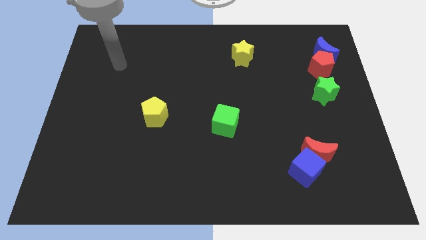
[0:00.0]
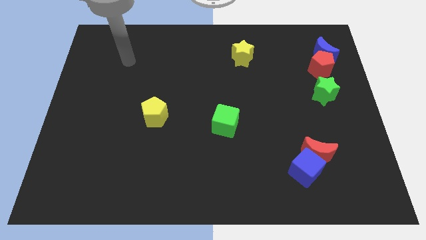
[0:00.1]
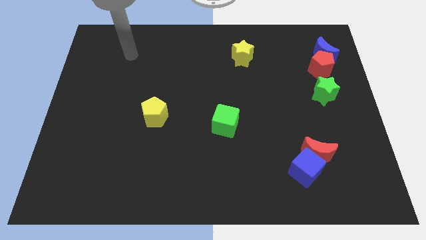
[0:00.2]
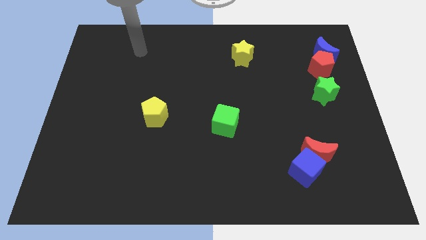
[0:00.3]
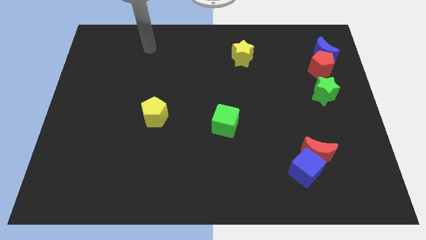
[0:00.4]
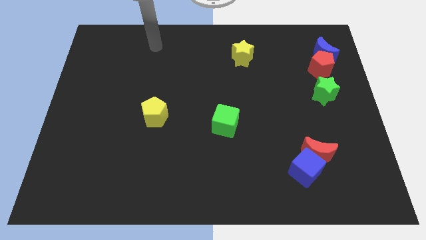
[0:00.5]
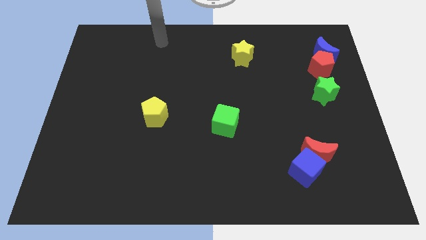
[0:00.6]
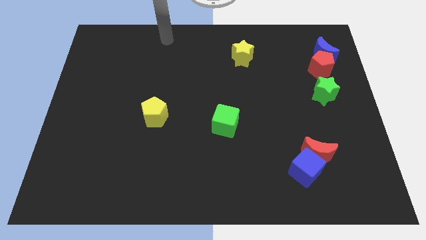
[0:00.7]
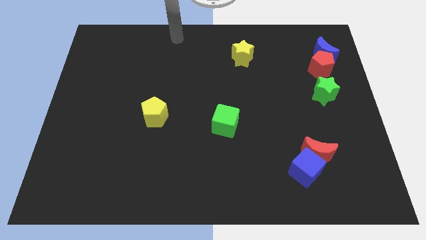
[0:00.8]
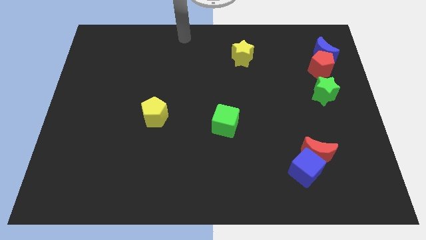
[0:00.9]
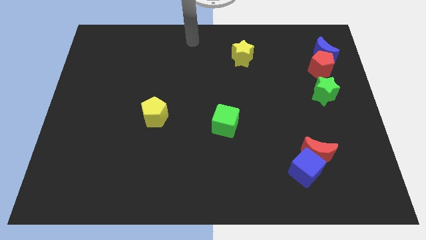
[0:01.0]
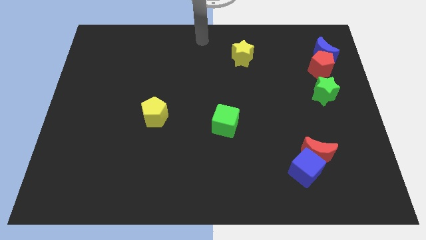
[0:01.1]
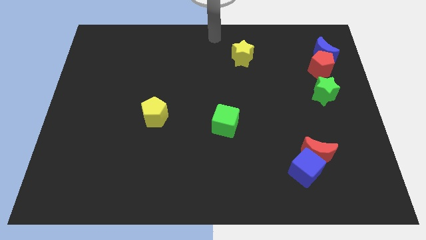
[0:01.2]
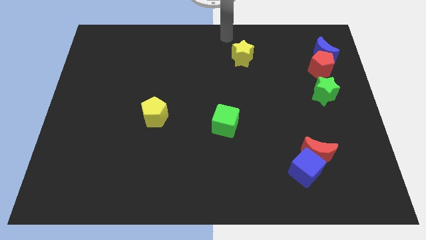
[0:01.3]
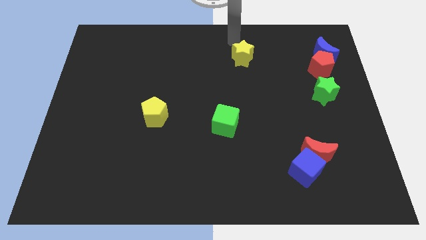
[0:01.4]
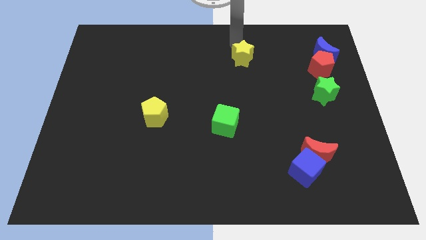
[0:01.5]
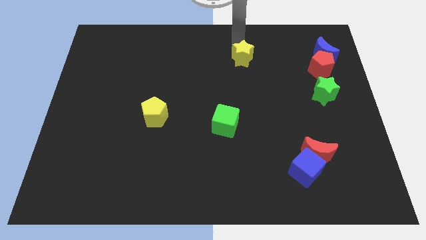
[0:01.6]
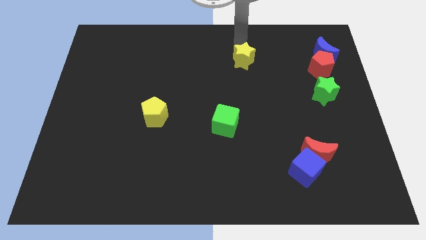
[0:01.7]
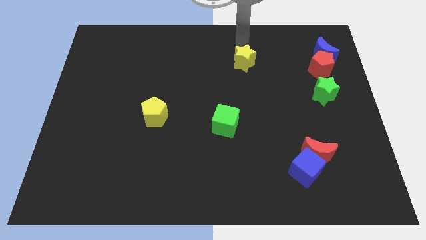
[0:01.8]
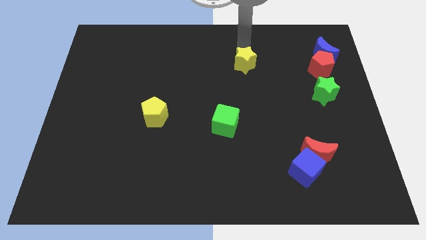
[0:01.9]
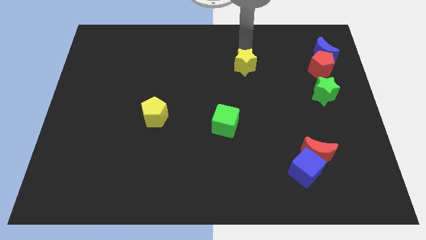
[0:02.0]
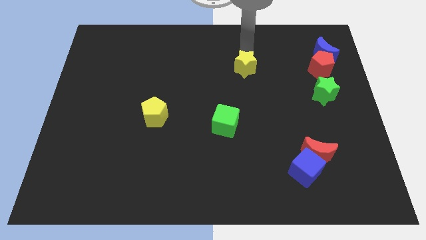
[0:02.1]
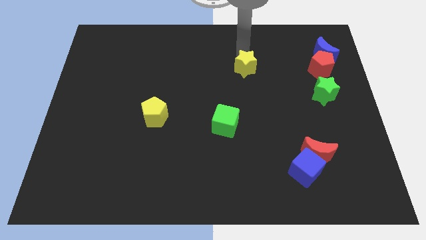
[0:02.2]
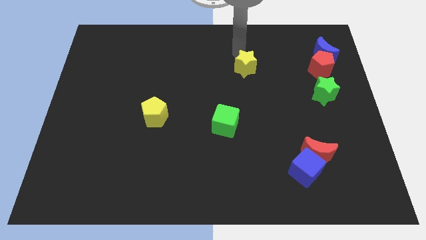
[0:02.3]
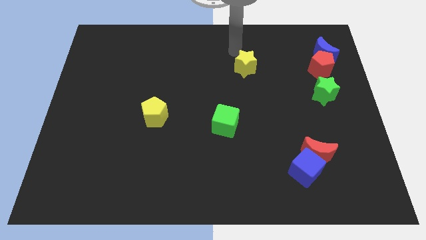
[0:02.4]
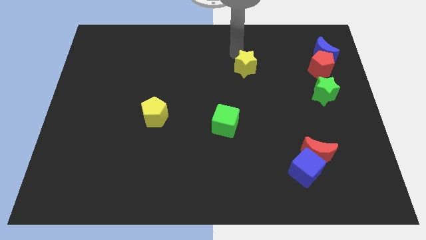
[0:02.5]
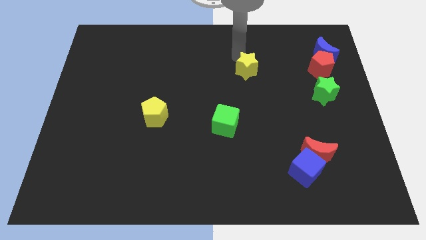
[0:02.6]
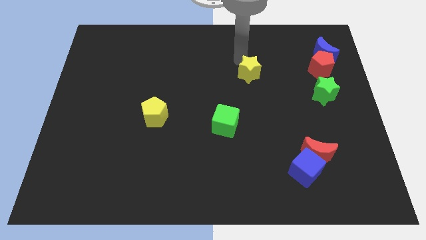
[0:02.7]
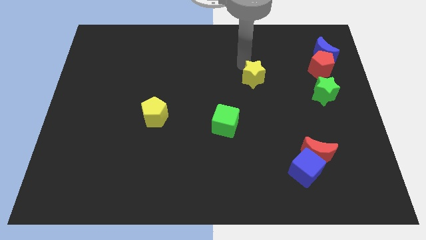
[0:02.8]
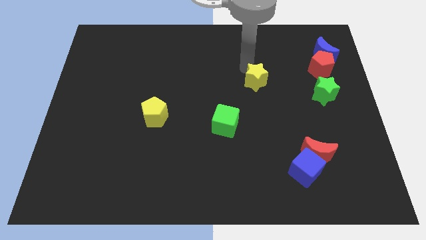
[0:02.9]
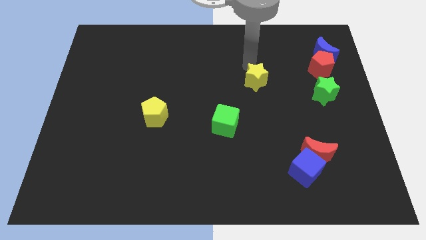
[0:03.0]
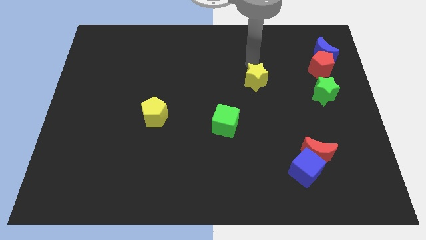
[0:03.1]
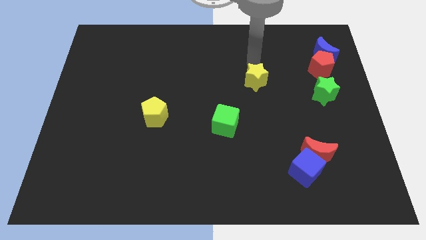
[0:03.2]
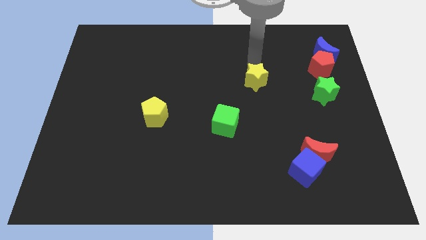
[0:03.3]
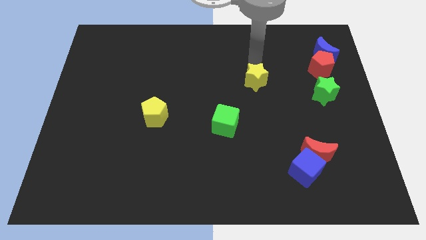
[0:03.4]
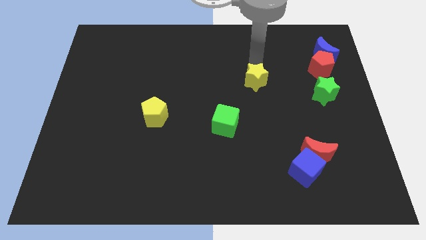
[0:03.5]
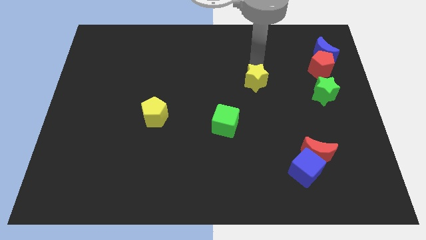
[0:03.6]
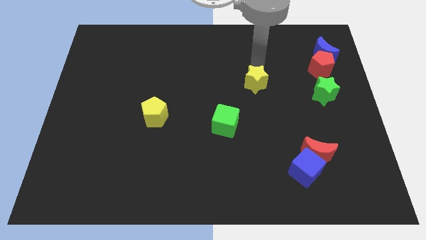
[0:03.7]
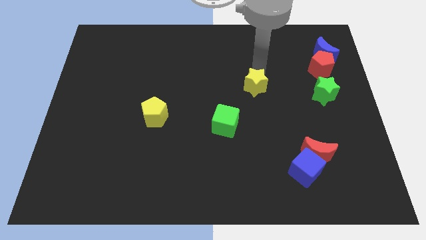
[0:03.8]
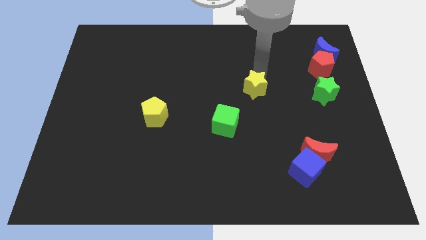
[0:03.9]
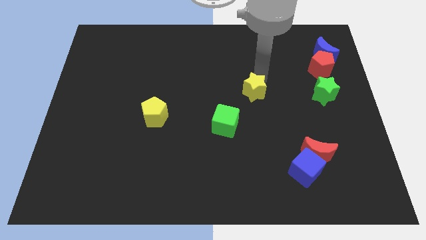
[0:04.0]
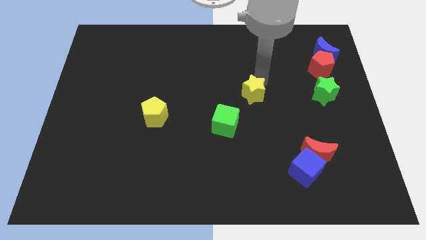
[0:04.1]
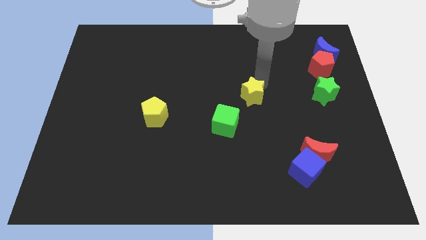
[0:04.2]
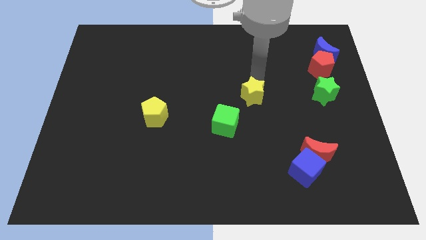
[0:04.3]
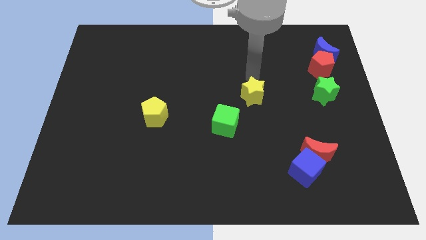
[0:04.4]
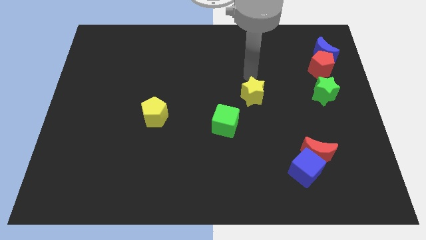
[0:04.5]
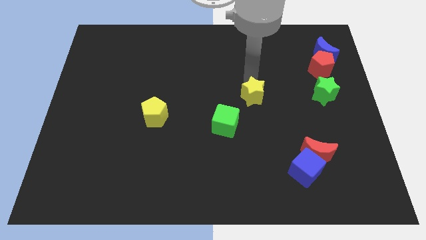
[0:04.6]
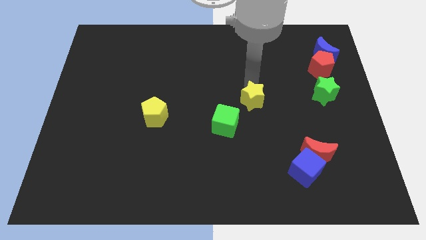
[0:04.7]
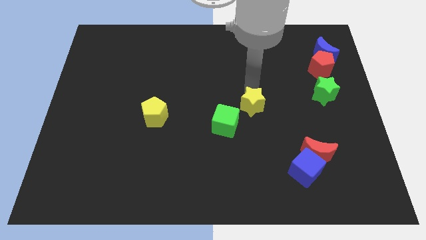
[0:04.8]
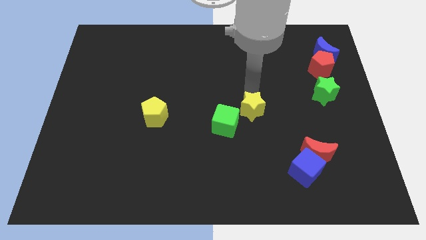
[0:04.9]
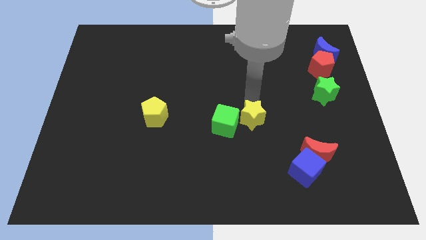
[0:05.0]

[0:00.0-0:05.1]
move the yellow star downwards

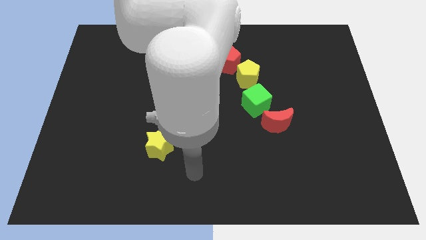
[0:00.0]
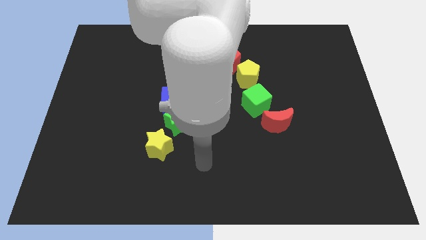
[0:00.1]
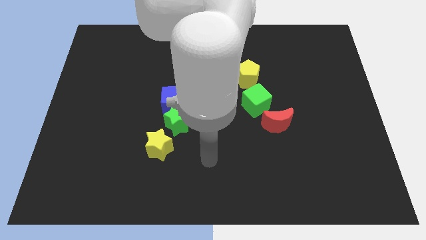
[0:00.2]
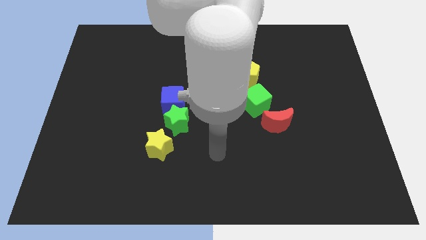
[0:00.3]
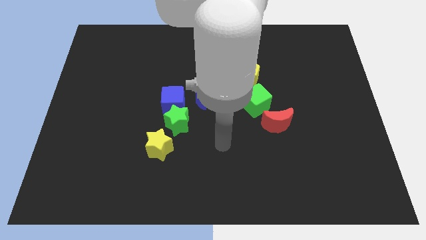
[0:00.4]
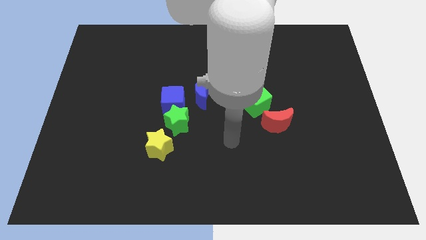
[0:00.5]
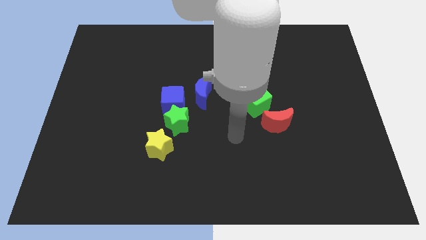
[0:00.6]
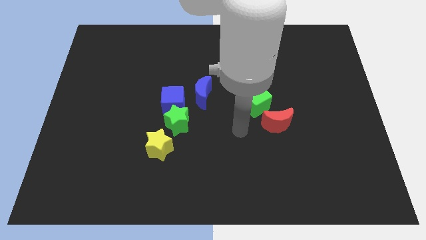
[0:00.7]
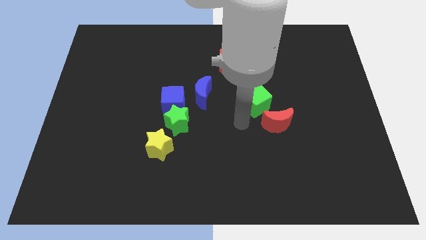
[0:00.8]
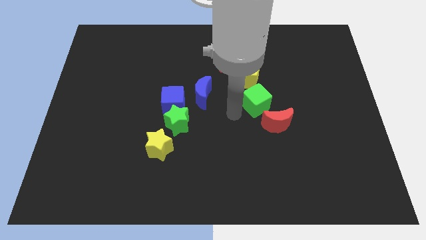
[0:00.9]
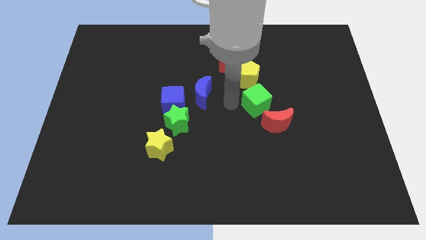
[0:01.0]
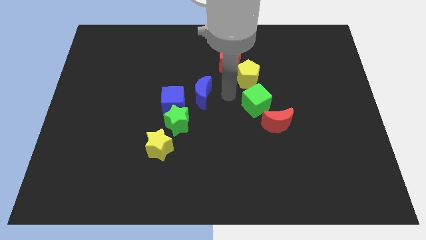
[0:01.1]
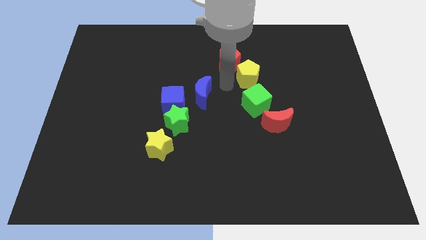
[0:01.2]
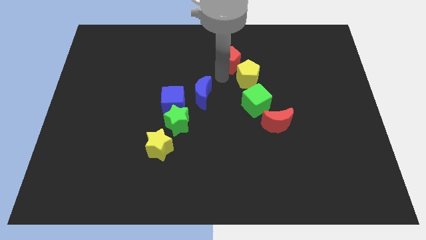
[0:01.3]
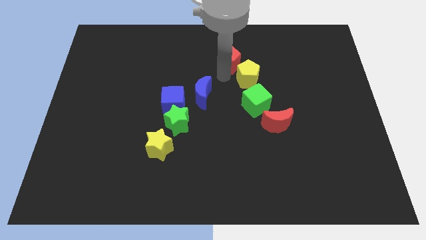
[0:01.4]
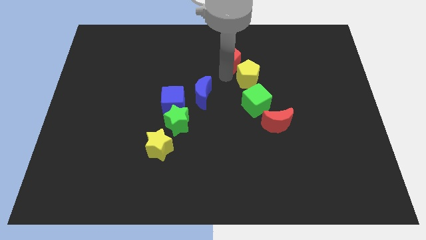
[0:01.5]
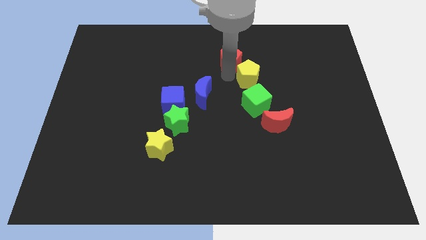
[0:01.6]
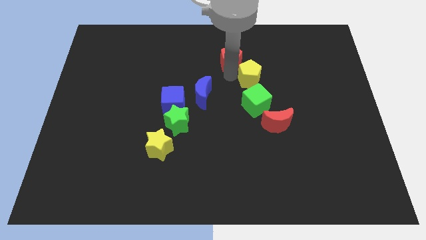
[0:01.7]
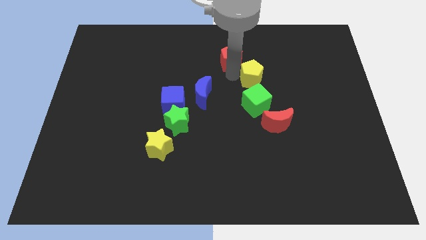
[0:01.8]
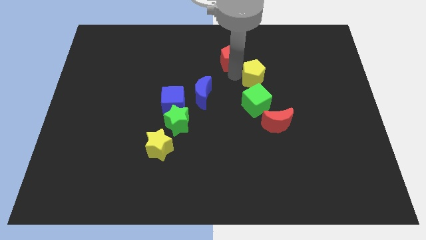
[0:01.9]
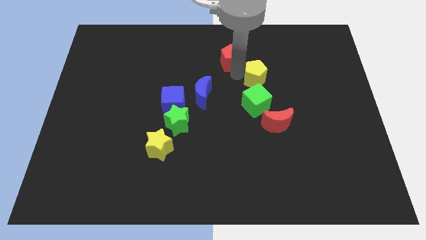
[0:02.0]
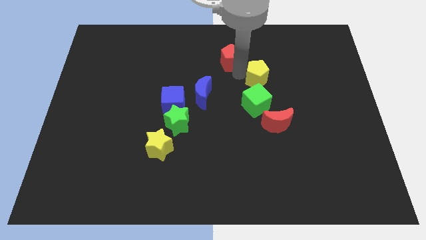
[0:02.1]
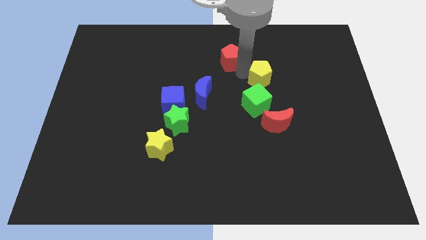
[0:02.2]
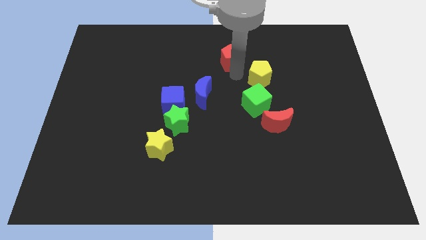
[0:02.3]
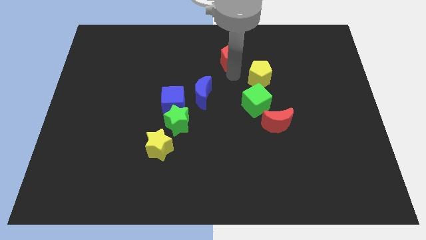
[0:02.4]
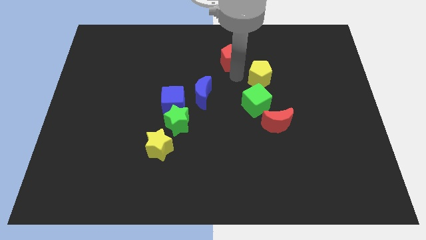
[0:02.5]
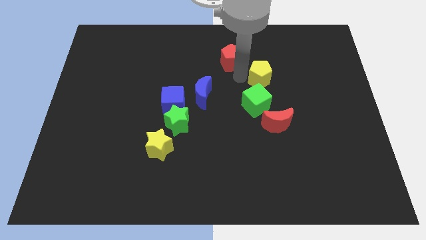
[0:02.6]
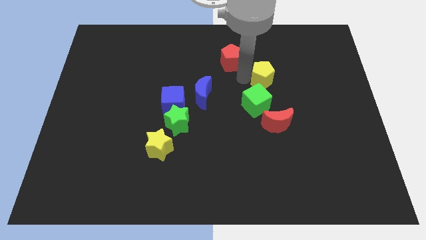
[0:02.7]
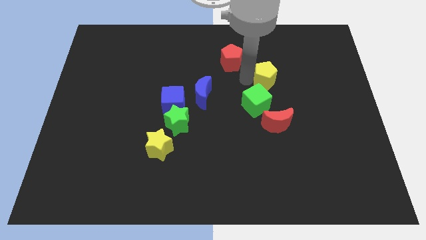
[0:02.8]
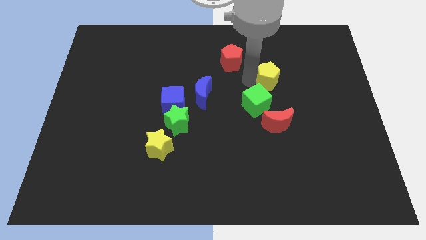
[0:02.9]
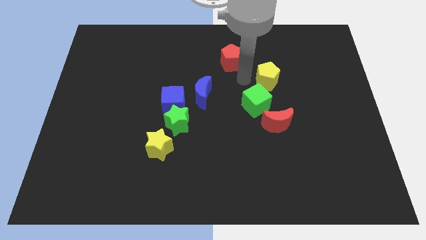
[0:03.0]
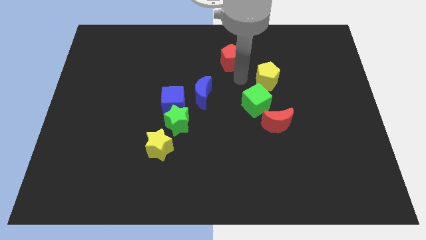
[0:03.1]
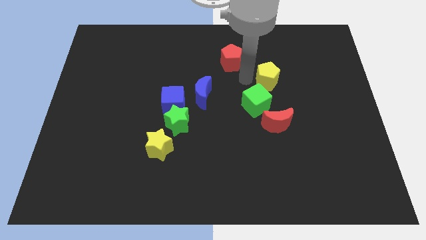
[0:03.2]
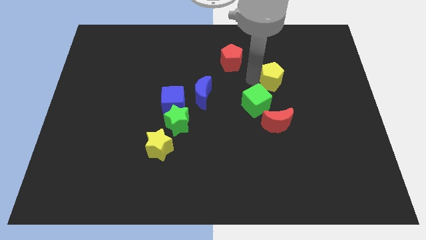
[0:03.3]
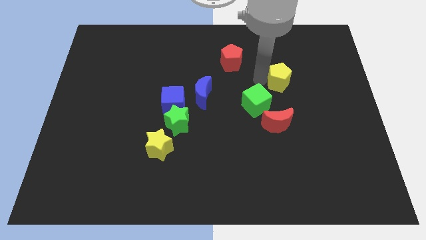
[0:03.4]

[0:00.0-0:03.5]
slightly move the yellow pentagon to the right
